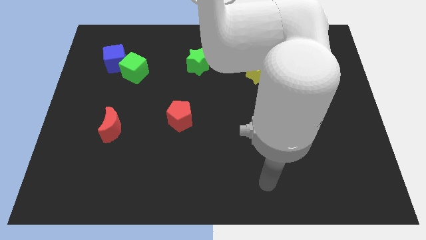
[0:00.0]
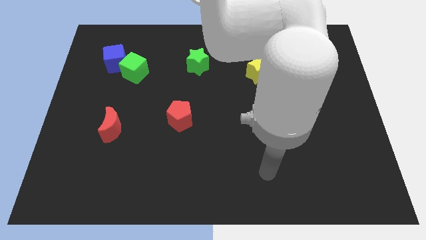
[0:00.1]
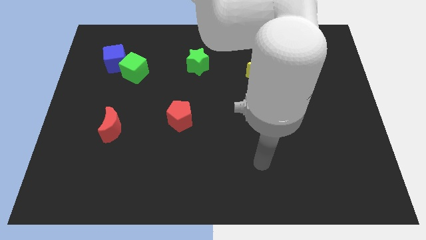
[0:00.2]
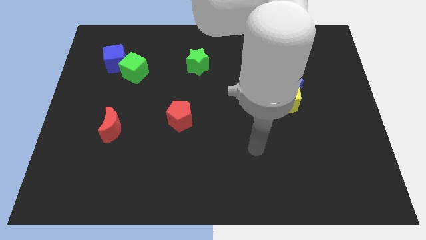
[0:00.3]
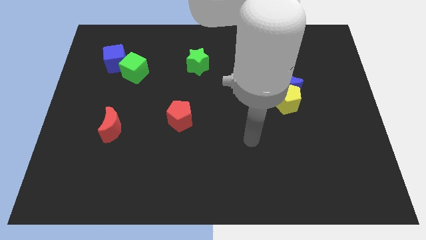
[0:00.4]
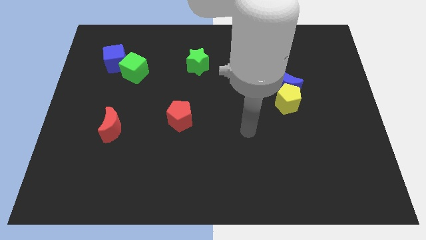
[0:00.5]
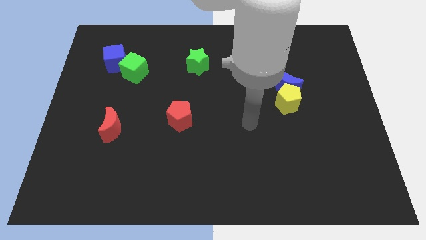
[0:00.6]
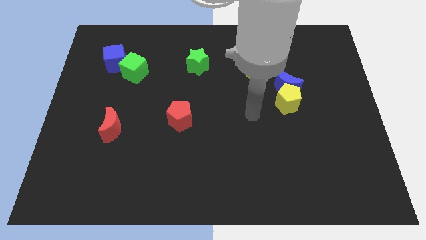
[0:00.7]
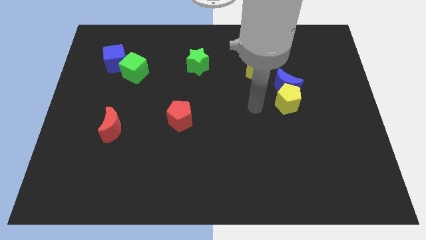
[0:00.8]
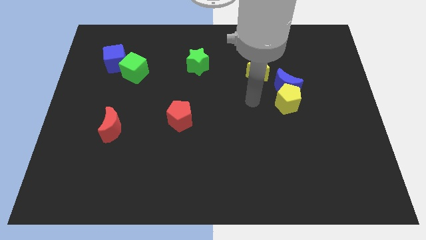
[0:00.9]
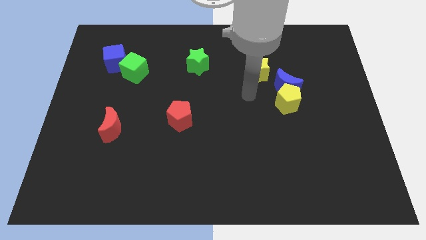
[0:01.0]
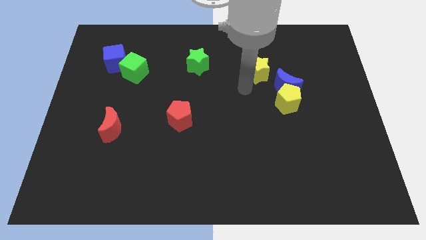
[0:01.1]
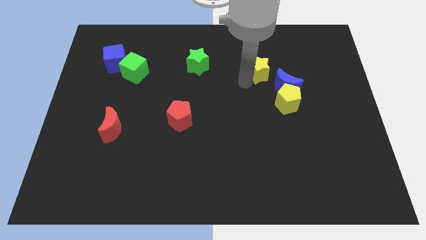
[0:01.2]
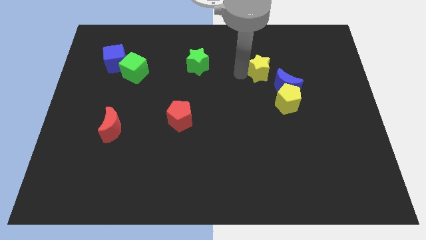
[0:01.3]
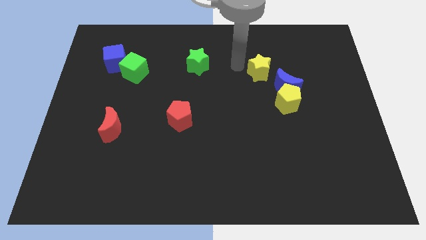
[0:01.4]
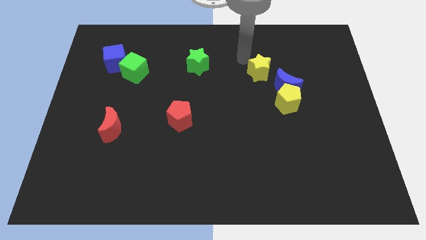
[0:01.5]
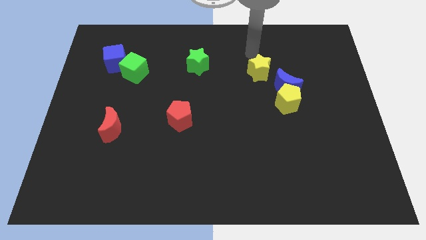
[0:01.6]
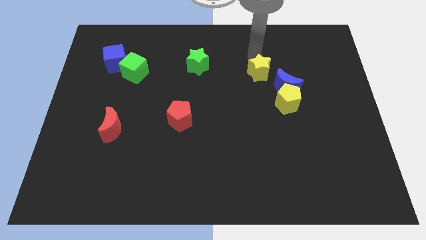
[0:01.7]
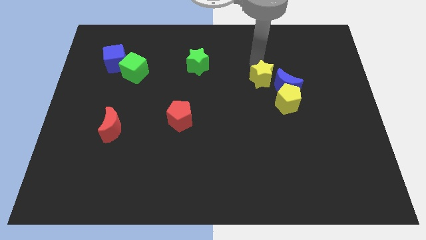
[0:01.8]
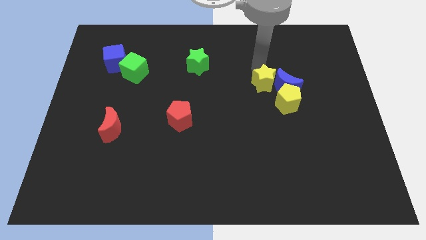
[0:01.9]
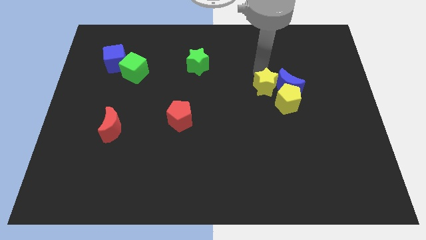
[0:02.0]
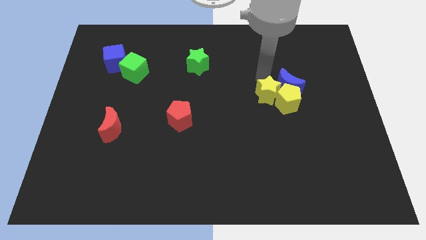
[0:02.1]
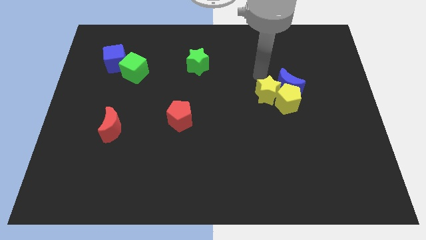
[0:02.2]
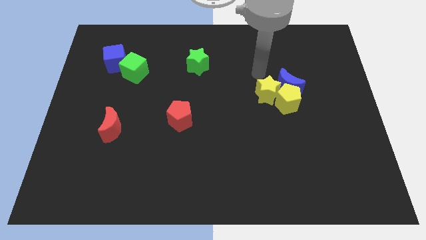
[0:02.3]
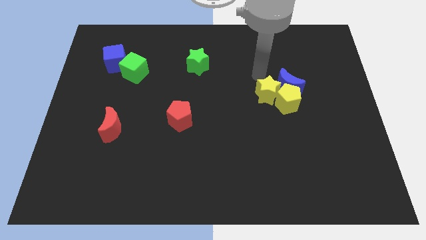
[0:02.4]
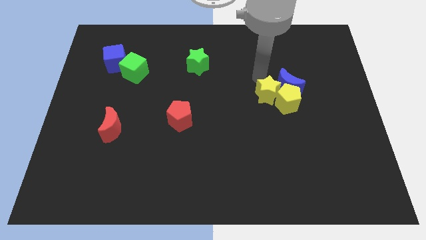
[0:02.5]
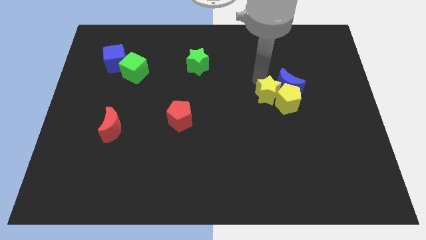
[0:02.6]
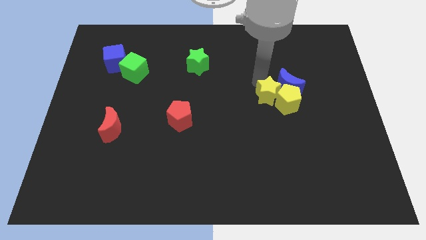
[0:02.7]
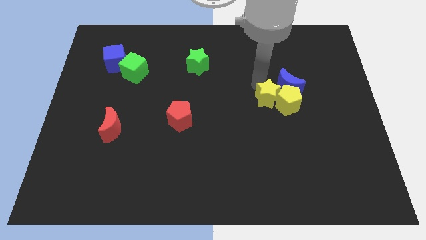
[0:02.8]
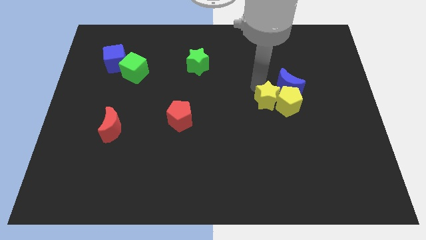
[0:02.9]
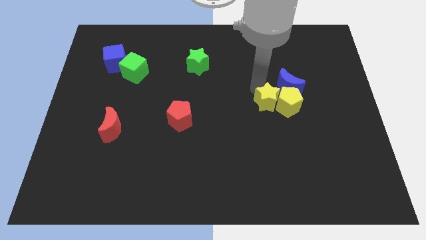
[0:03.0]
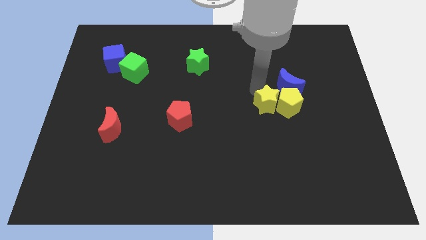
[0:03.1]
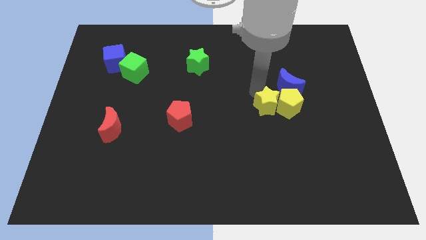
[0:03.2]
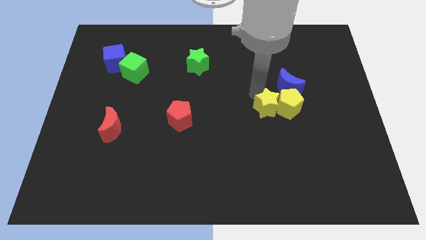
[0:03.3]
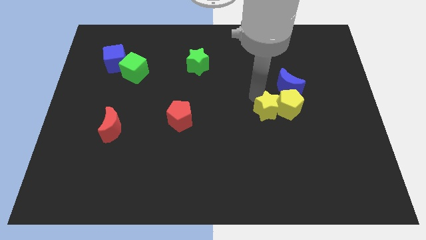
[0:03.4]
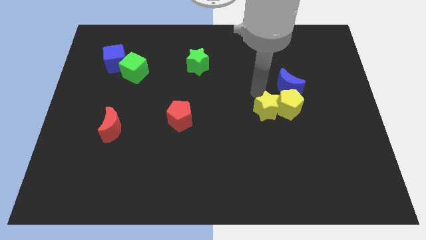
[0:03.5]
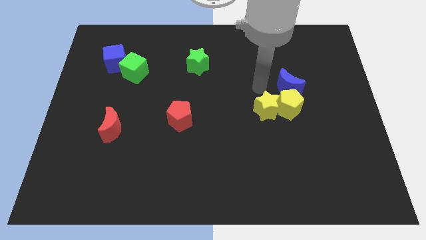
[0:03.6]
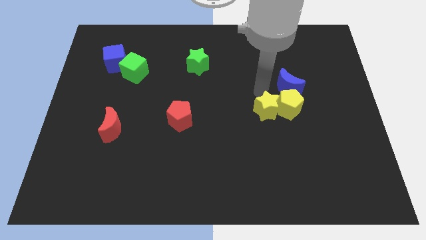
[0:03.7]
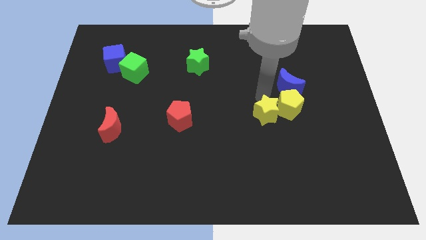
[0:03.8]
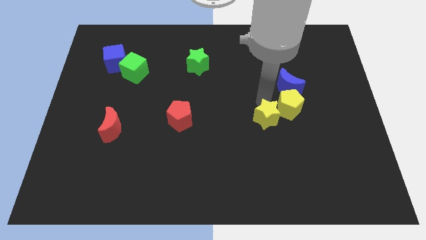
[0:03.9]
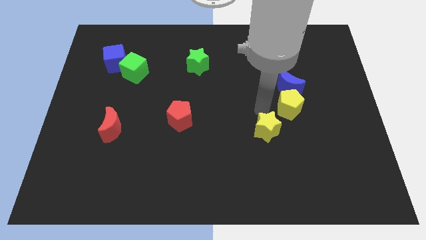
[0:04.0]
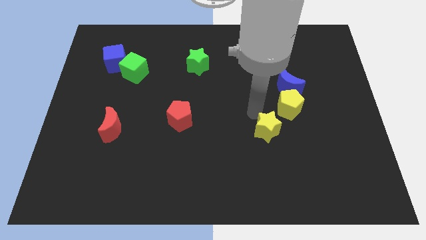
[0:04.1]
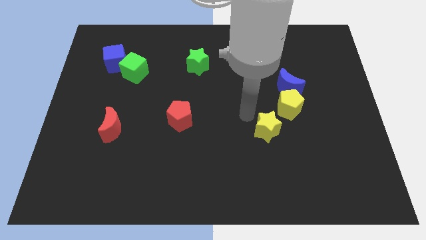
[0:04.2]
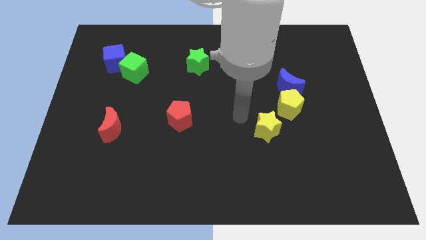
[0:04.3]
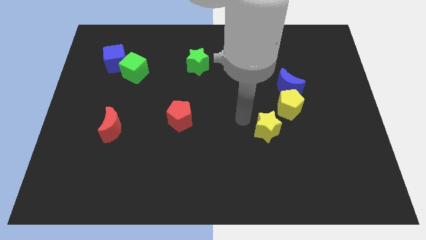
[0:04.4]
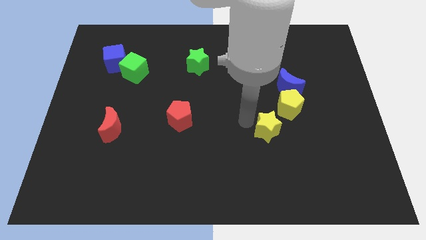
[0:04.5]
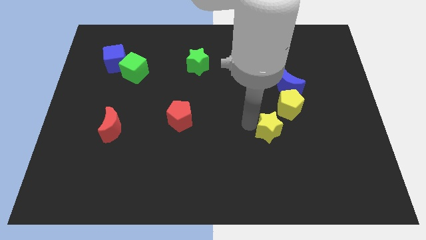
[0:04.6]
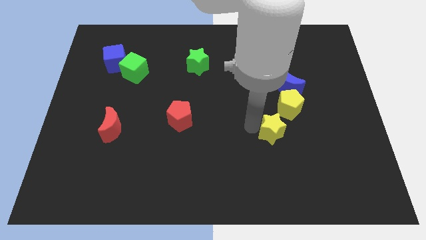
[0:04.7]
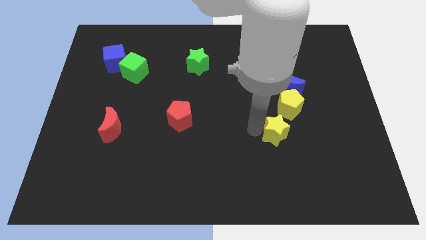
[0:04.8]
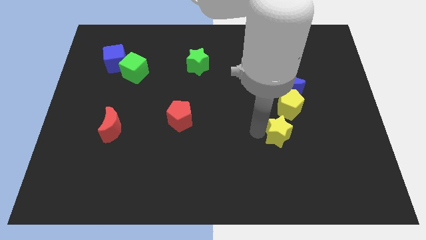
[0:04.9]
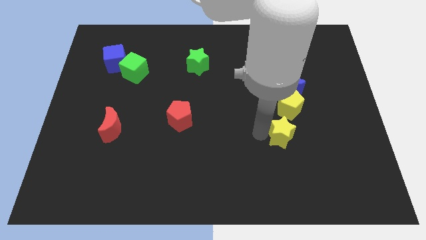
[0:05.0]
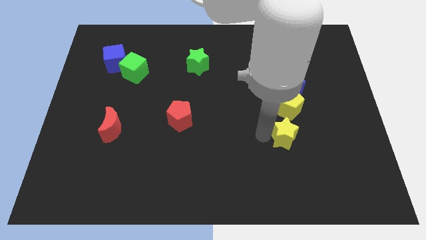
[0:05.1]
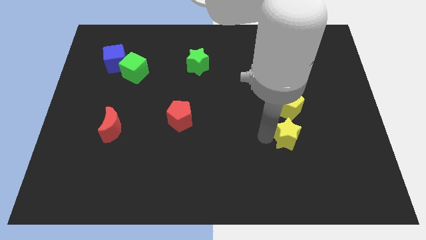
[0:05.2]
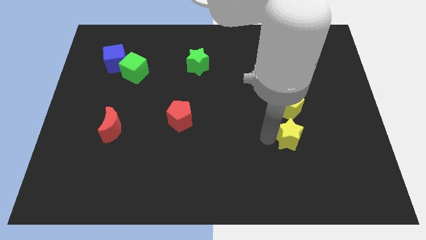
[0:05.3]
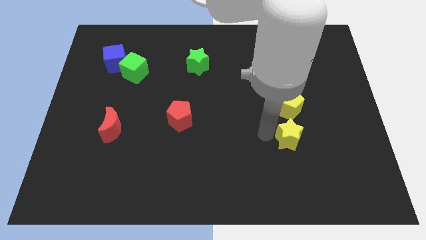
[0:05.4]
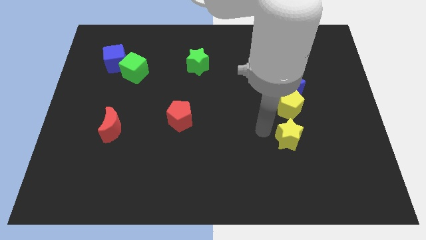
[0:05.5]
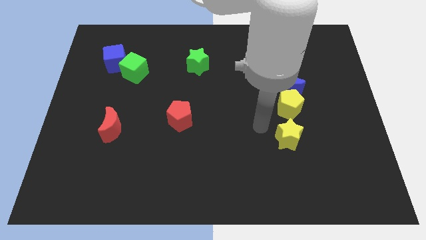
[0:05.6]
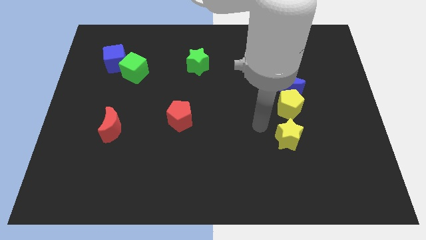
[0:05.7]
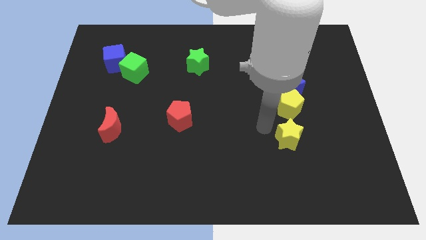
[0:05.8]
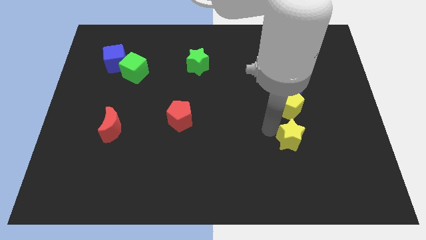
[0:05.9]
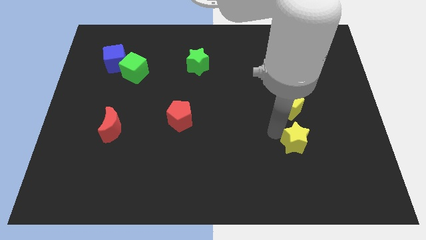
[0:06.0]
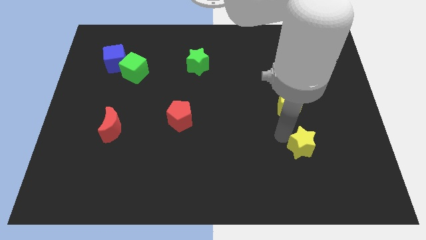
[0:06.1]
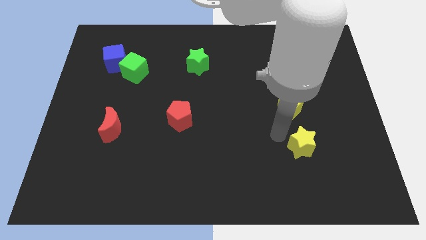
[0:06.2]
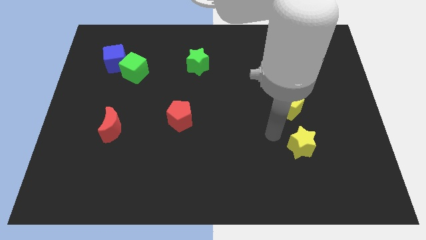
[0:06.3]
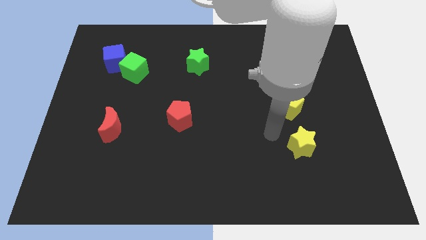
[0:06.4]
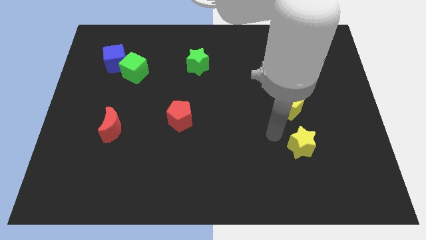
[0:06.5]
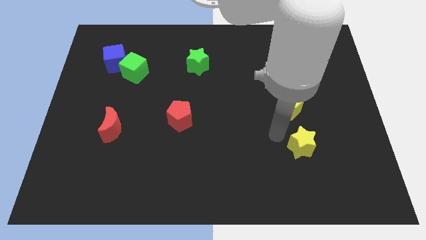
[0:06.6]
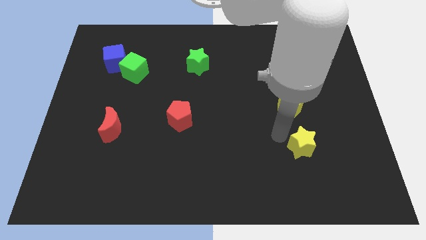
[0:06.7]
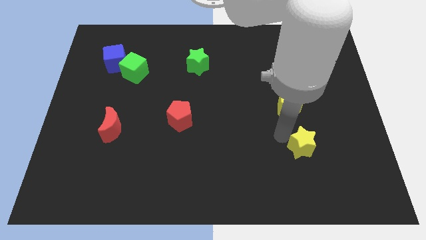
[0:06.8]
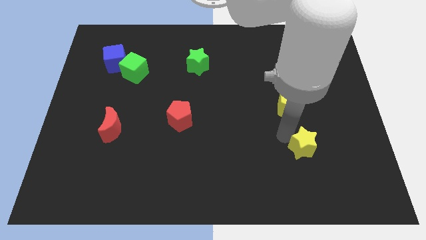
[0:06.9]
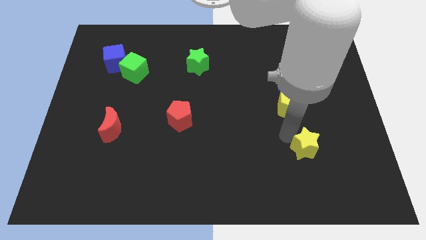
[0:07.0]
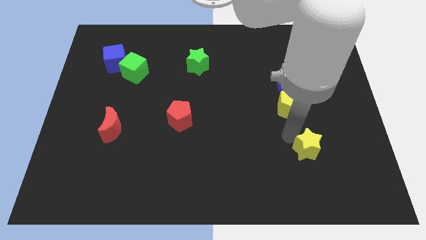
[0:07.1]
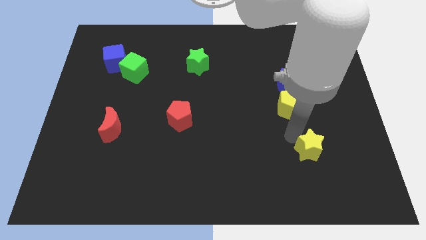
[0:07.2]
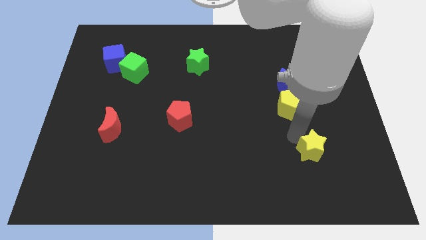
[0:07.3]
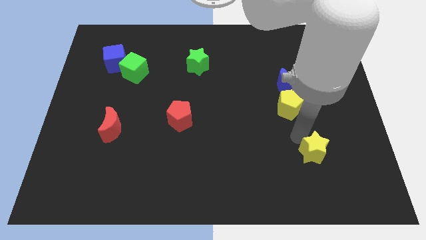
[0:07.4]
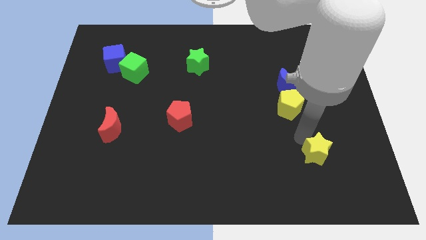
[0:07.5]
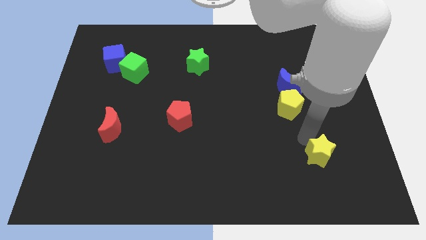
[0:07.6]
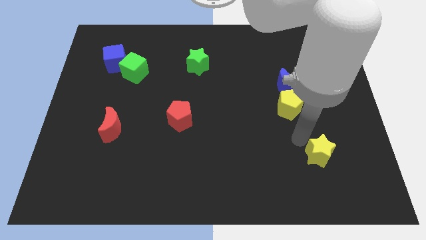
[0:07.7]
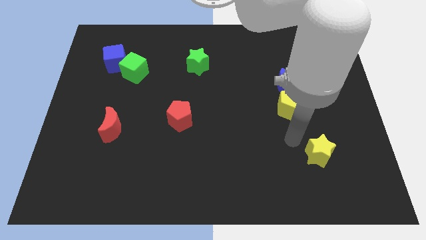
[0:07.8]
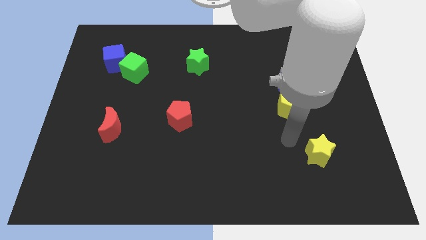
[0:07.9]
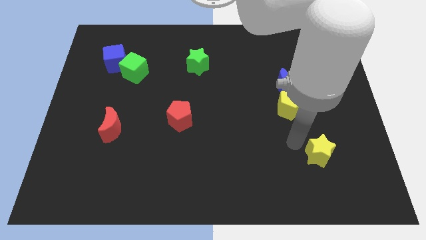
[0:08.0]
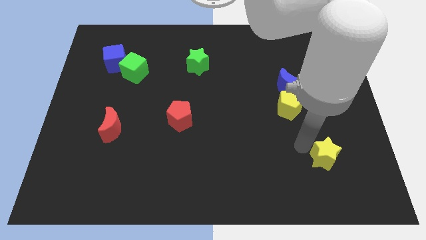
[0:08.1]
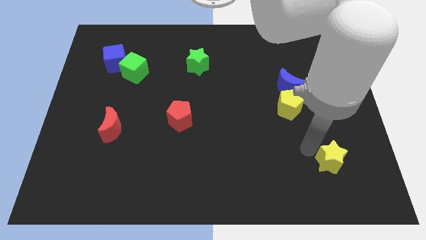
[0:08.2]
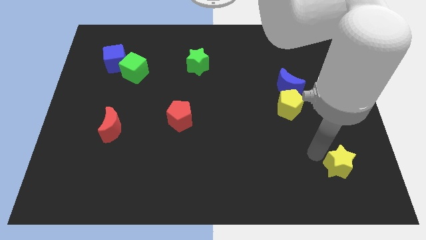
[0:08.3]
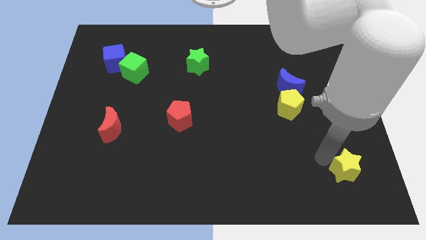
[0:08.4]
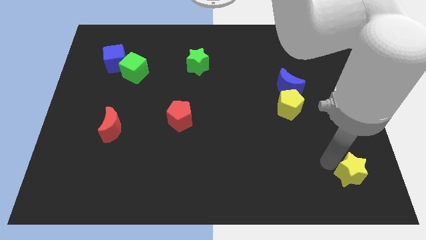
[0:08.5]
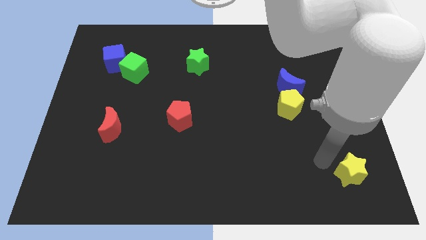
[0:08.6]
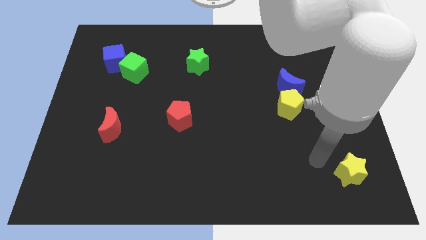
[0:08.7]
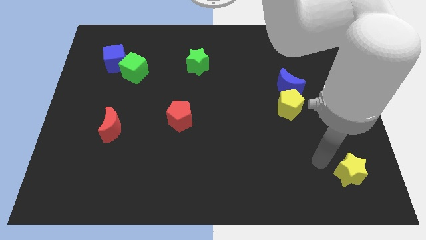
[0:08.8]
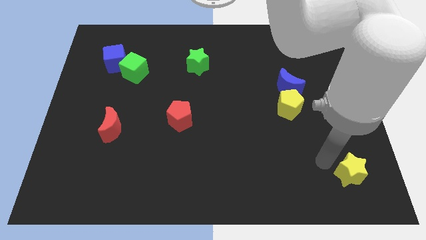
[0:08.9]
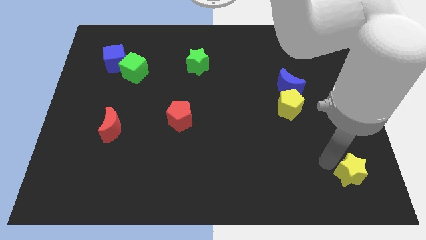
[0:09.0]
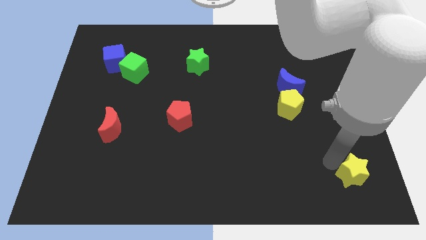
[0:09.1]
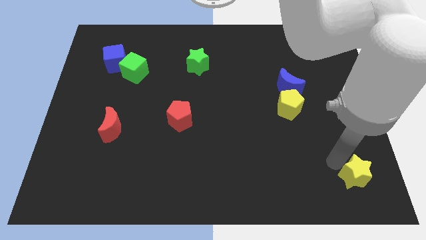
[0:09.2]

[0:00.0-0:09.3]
move the yellow star to the bottom right corner
